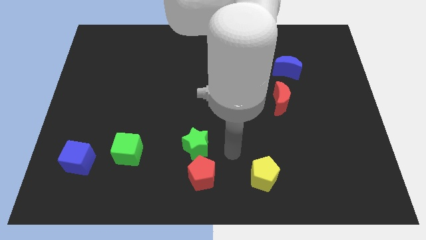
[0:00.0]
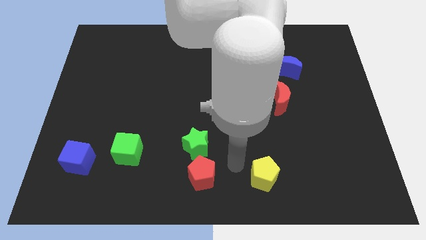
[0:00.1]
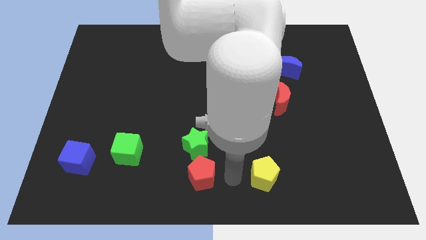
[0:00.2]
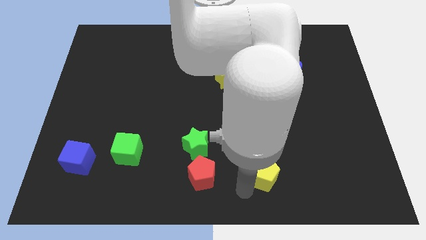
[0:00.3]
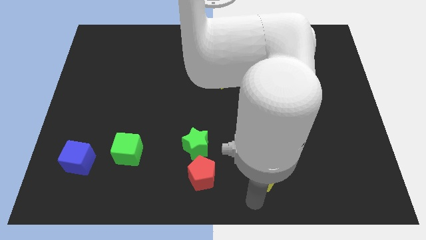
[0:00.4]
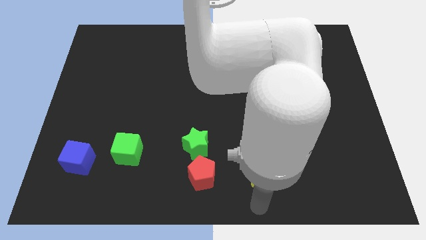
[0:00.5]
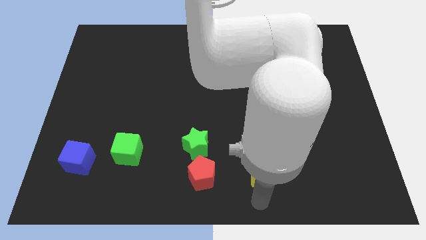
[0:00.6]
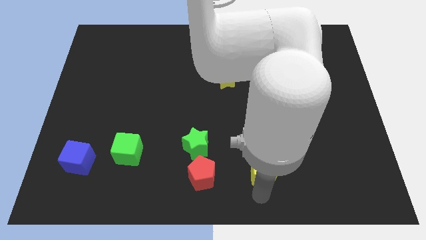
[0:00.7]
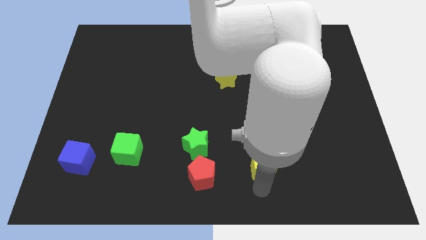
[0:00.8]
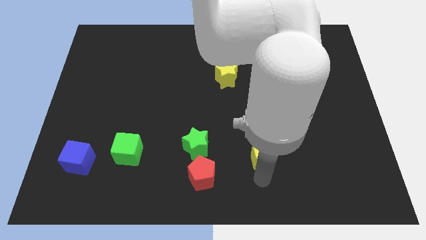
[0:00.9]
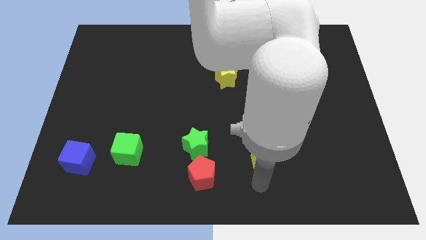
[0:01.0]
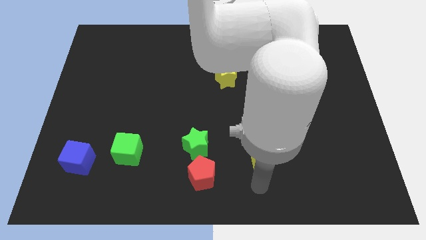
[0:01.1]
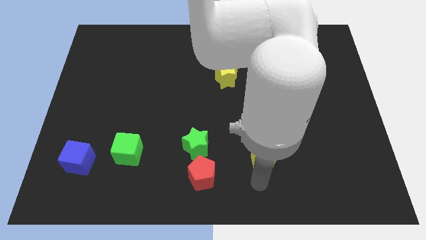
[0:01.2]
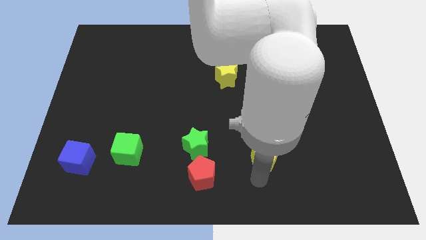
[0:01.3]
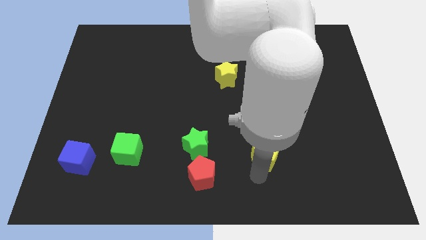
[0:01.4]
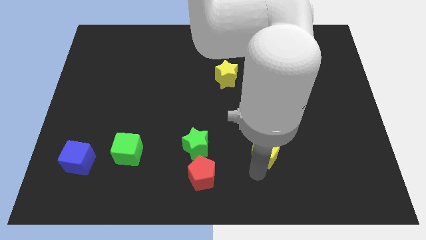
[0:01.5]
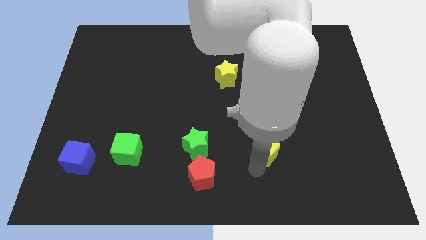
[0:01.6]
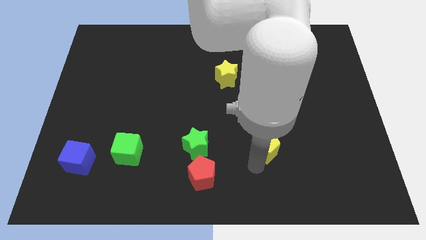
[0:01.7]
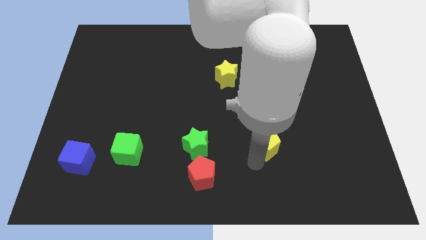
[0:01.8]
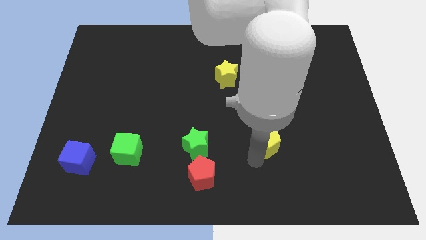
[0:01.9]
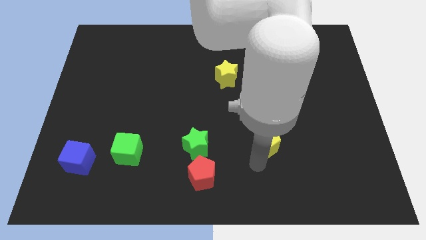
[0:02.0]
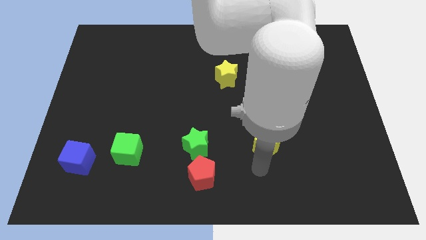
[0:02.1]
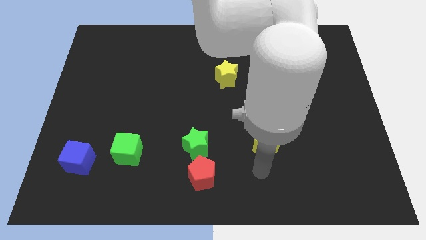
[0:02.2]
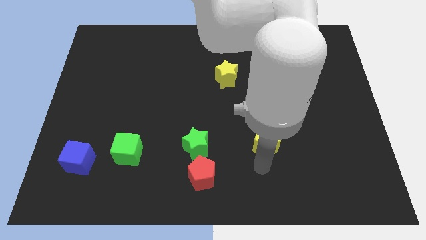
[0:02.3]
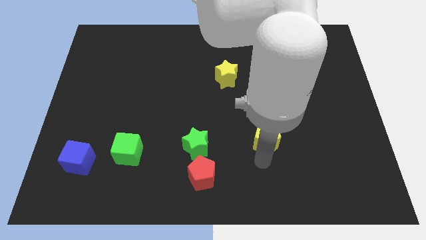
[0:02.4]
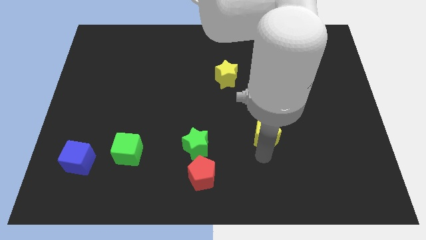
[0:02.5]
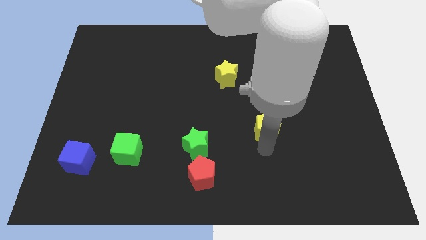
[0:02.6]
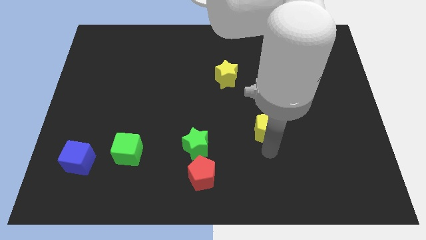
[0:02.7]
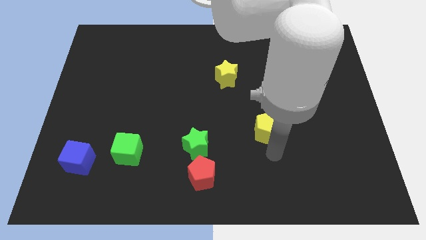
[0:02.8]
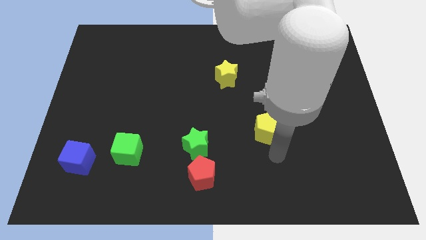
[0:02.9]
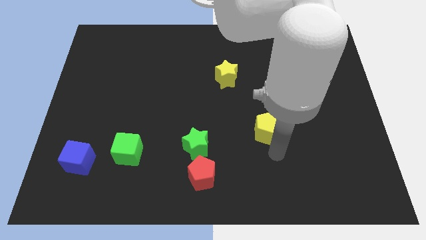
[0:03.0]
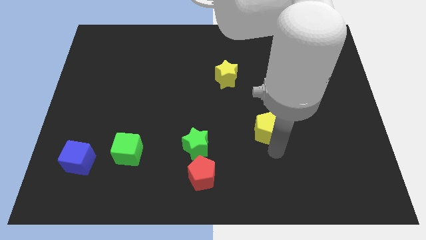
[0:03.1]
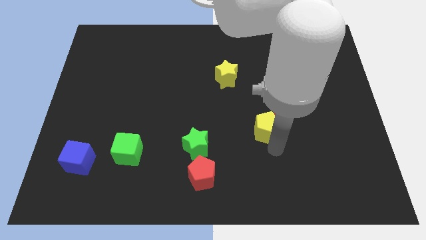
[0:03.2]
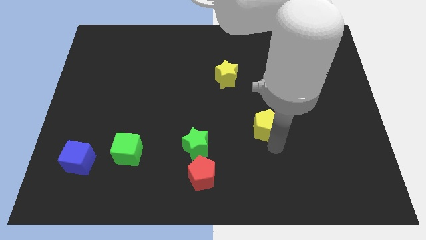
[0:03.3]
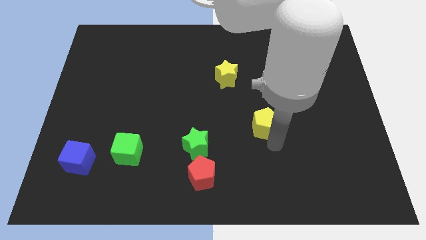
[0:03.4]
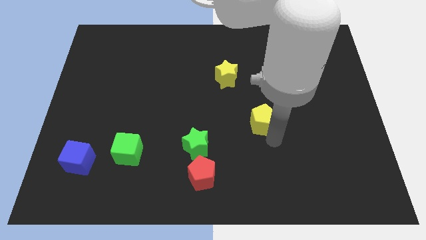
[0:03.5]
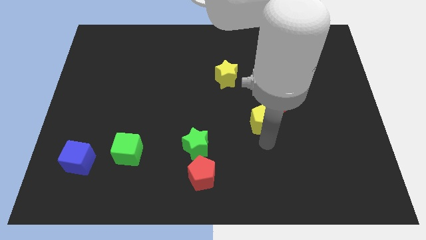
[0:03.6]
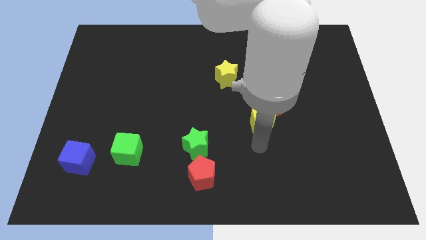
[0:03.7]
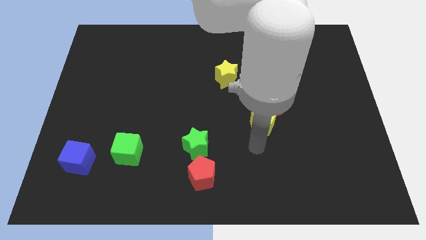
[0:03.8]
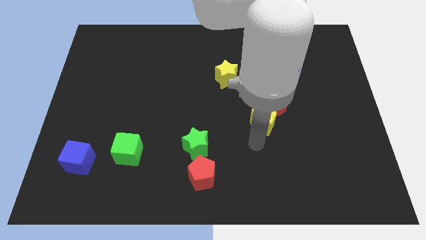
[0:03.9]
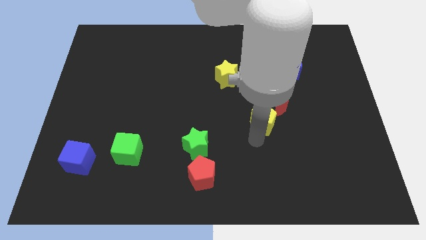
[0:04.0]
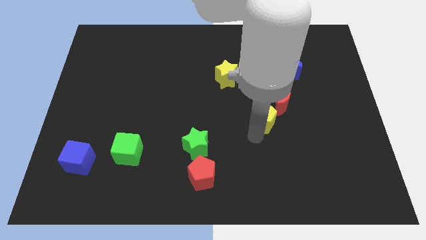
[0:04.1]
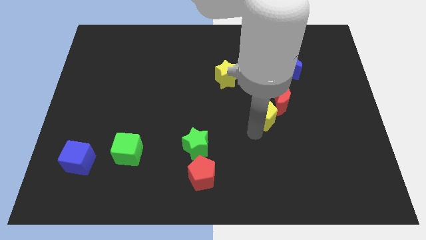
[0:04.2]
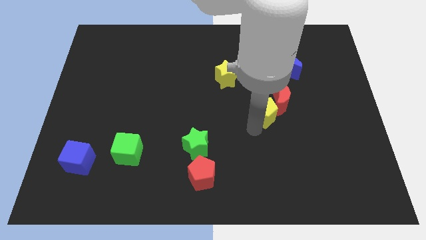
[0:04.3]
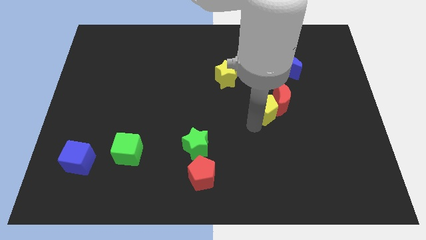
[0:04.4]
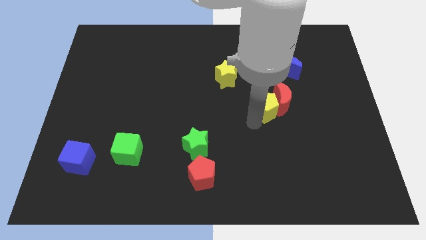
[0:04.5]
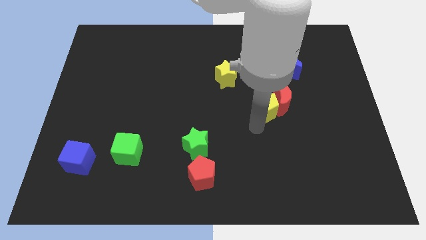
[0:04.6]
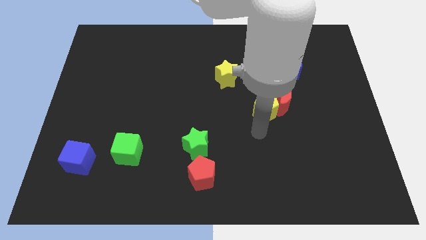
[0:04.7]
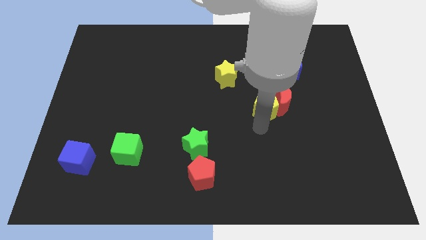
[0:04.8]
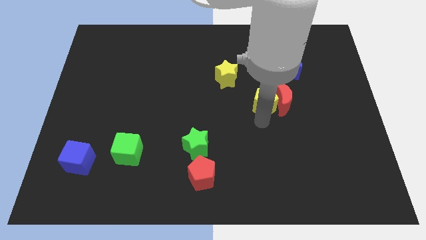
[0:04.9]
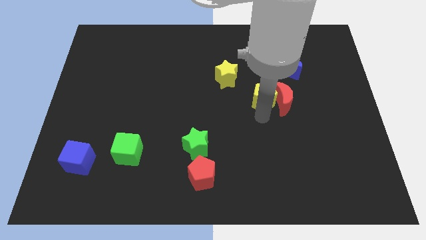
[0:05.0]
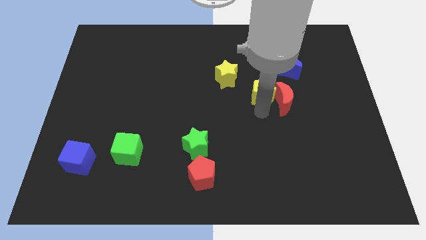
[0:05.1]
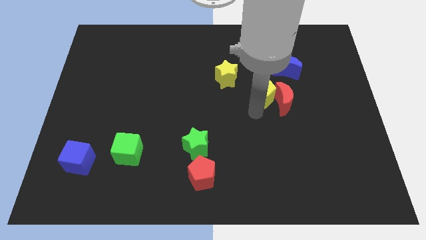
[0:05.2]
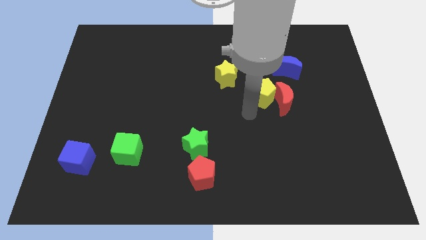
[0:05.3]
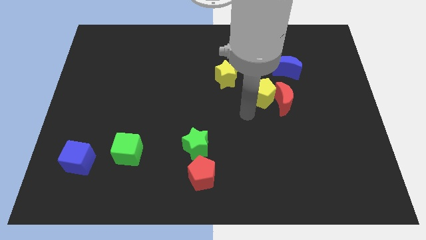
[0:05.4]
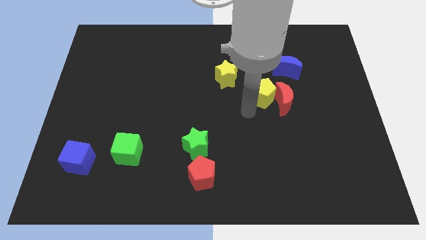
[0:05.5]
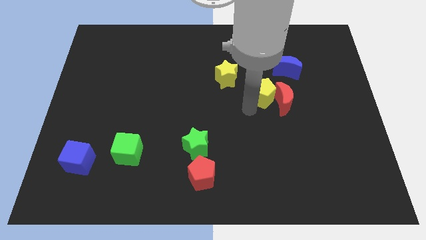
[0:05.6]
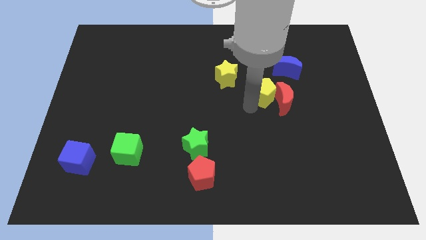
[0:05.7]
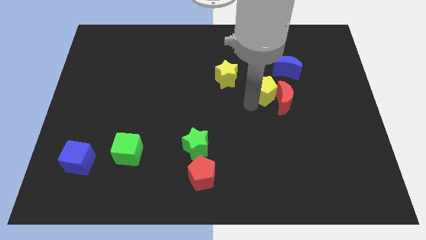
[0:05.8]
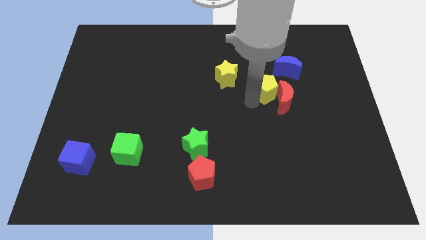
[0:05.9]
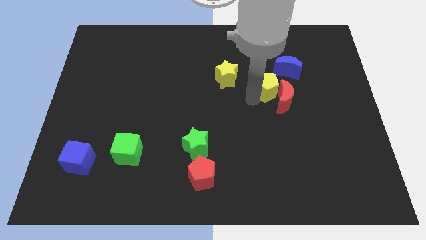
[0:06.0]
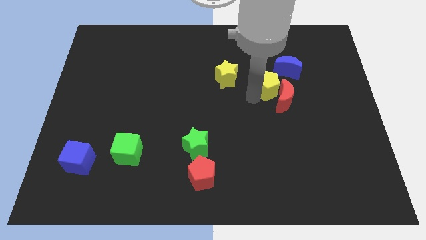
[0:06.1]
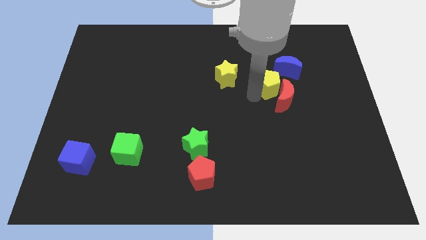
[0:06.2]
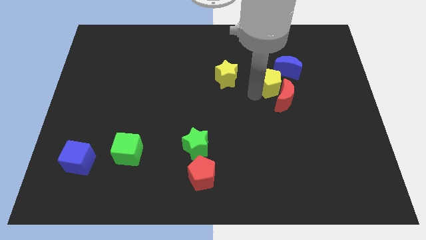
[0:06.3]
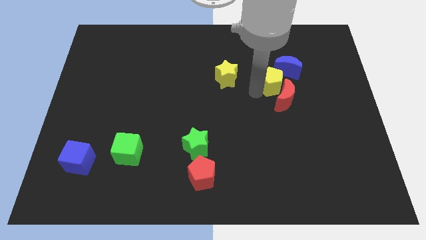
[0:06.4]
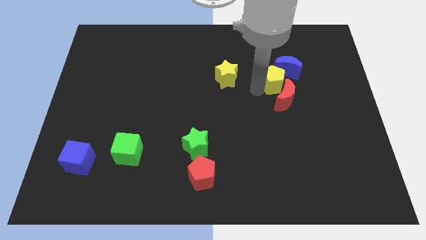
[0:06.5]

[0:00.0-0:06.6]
move the yellow pentagon next to the blue moon
